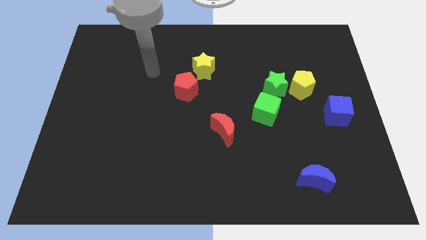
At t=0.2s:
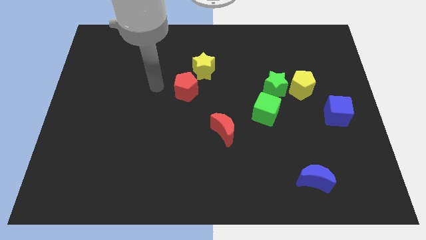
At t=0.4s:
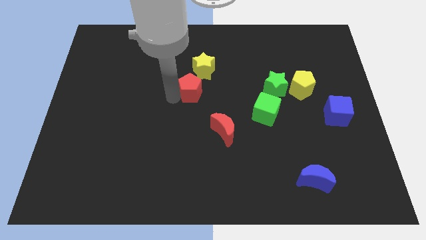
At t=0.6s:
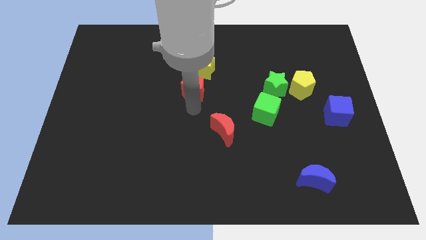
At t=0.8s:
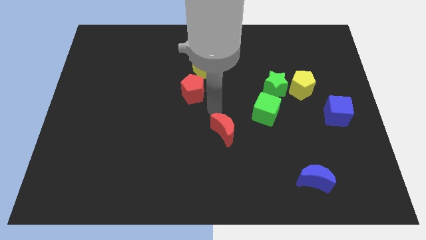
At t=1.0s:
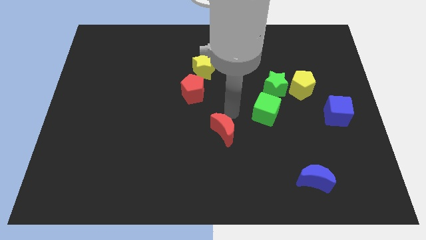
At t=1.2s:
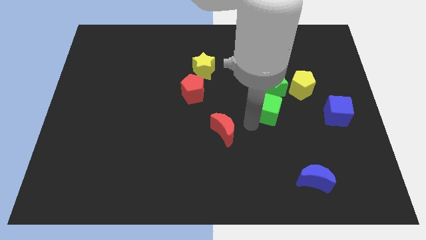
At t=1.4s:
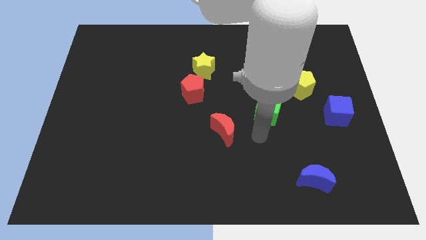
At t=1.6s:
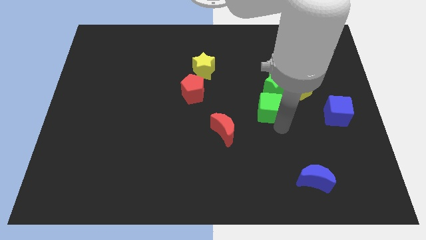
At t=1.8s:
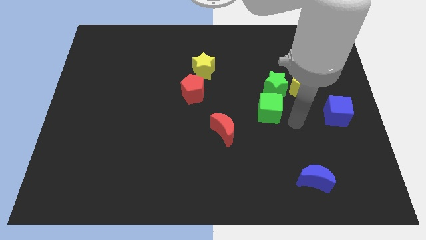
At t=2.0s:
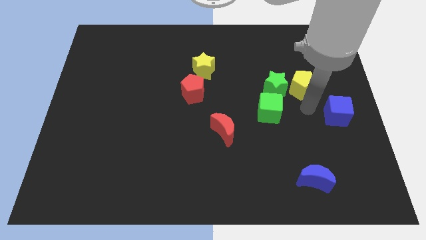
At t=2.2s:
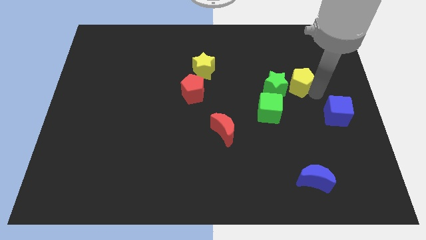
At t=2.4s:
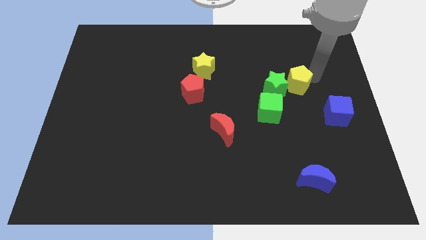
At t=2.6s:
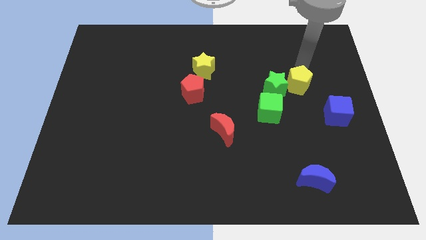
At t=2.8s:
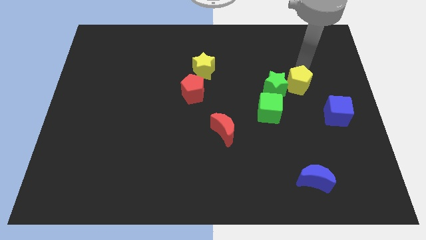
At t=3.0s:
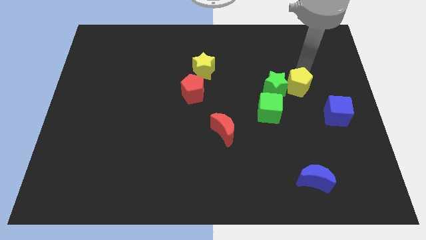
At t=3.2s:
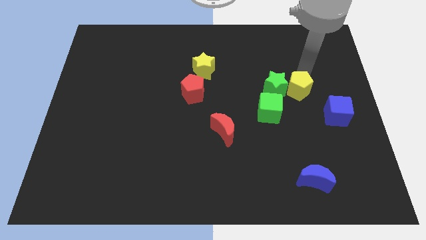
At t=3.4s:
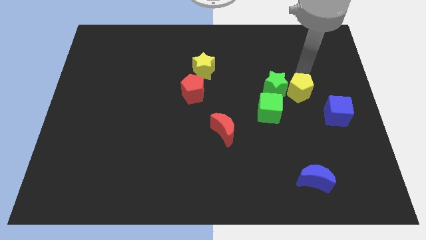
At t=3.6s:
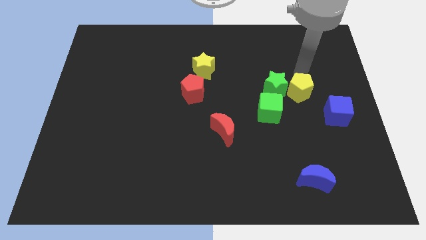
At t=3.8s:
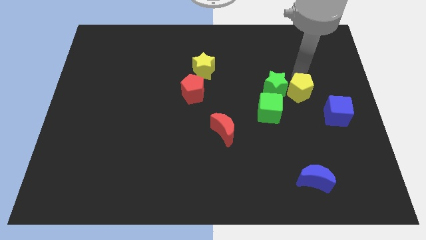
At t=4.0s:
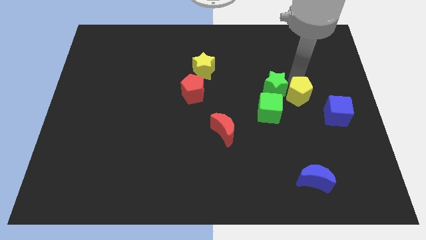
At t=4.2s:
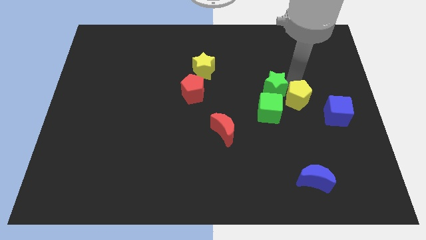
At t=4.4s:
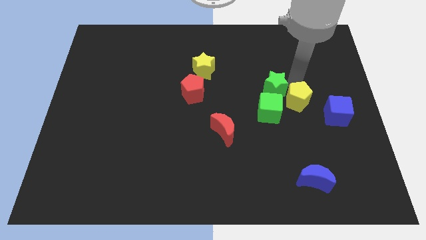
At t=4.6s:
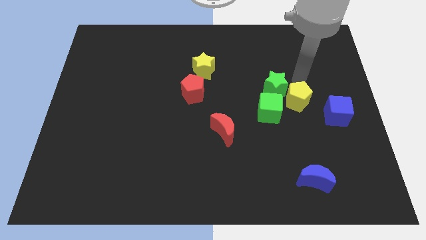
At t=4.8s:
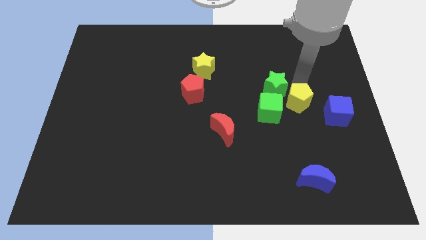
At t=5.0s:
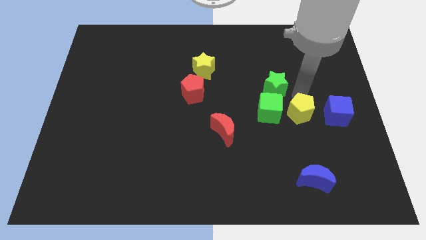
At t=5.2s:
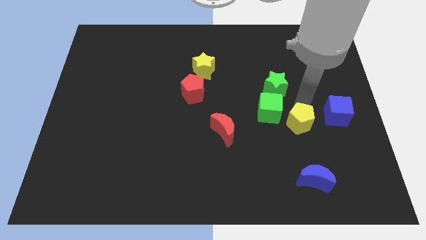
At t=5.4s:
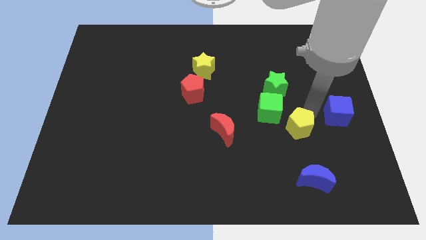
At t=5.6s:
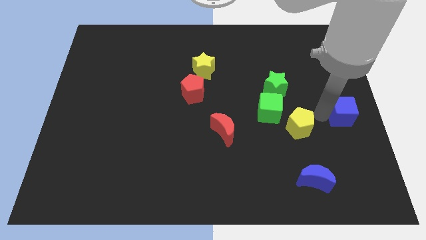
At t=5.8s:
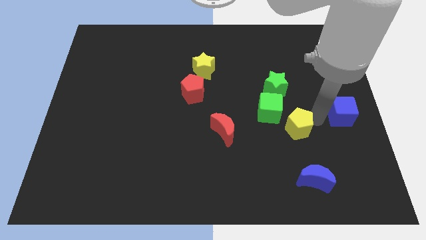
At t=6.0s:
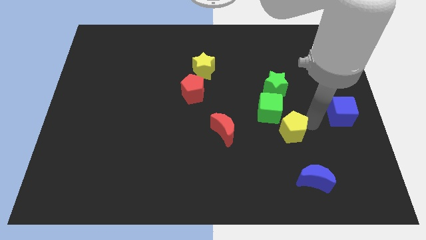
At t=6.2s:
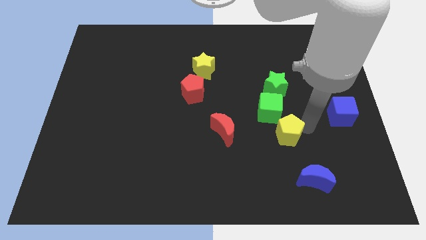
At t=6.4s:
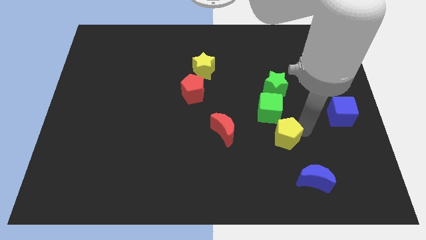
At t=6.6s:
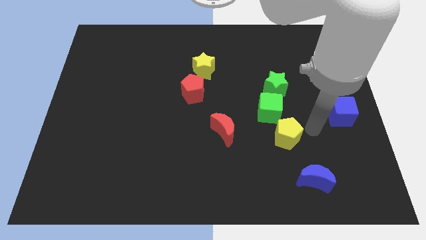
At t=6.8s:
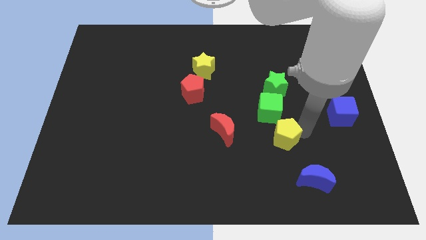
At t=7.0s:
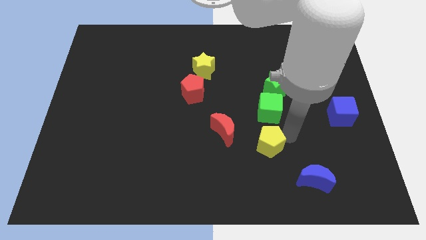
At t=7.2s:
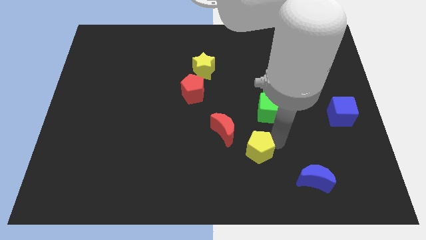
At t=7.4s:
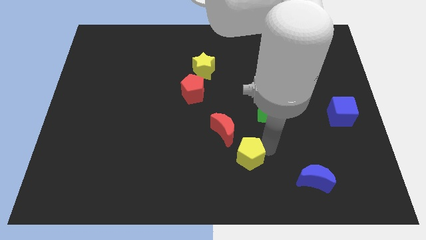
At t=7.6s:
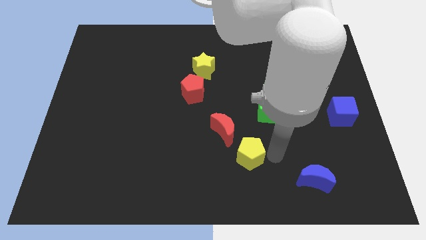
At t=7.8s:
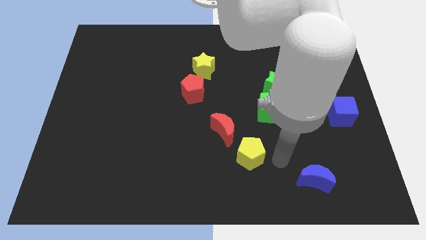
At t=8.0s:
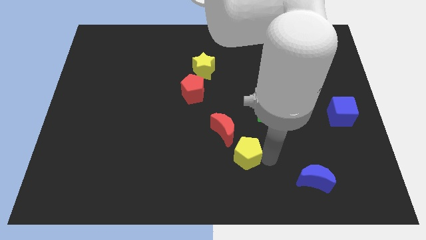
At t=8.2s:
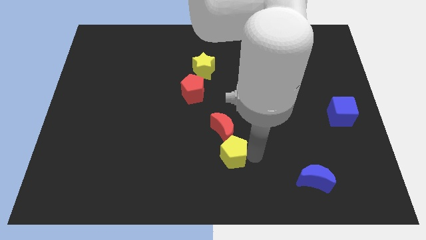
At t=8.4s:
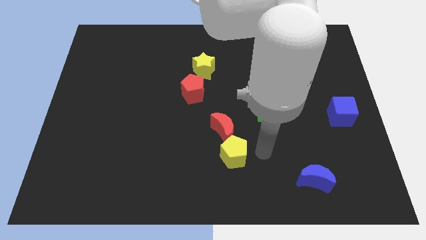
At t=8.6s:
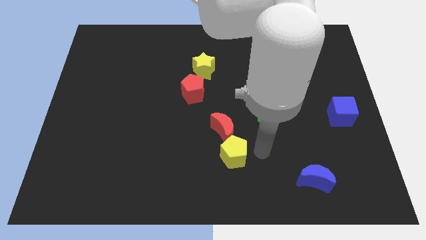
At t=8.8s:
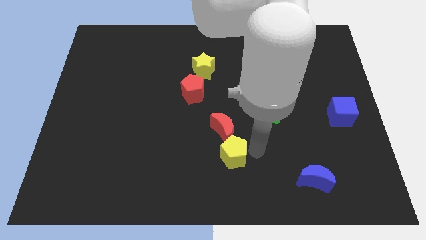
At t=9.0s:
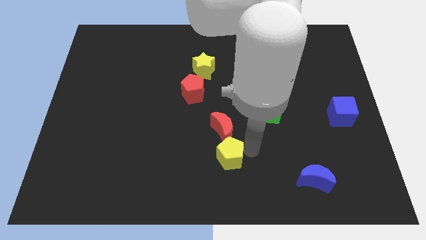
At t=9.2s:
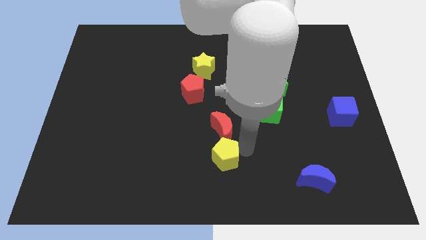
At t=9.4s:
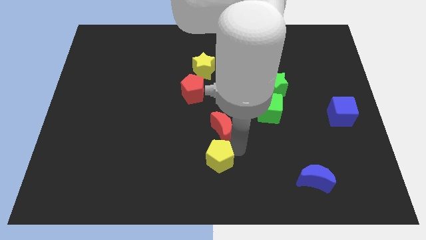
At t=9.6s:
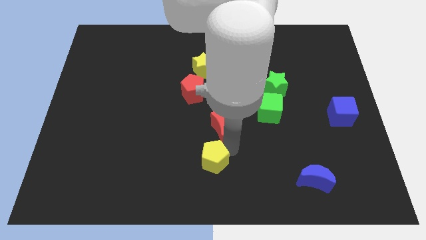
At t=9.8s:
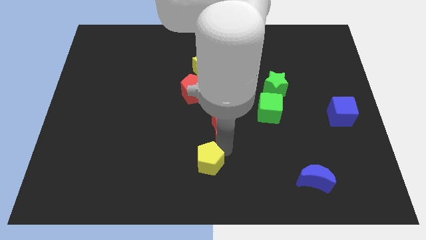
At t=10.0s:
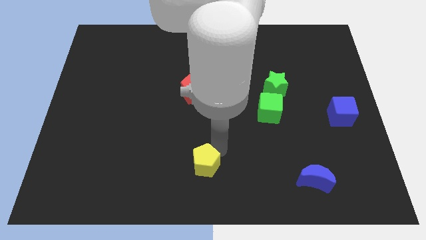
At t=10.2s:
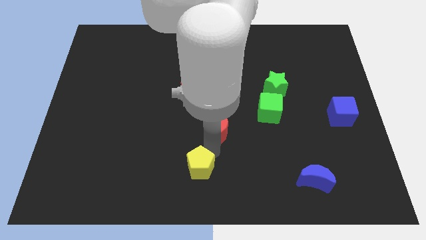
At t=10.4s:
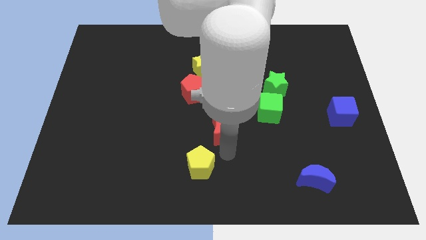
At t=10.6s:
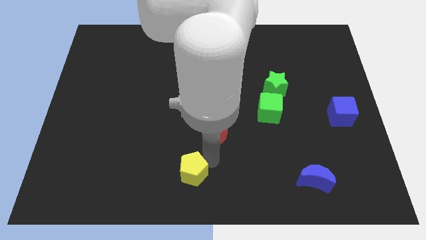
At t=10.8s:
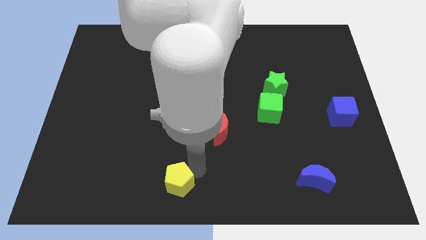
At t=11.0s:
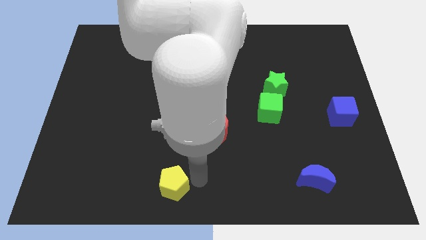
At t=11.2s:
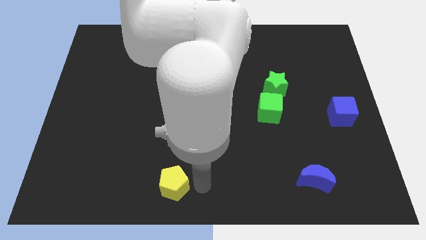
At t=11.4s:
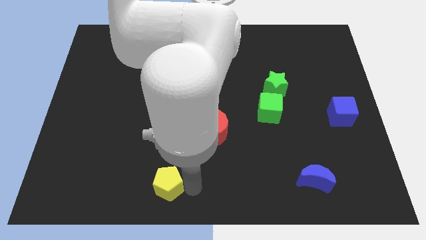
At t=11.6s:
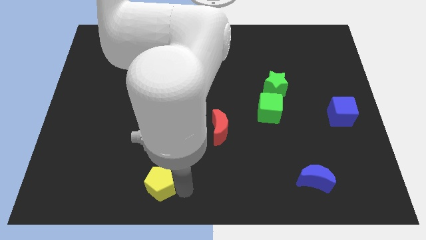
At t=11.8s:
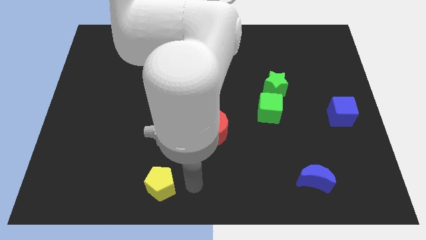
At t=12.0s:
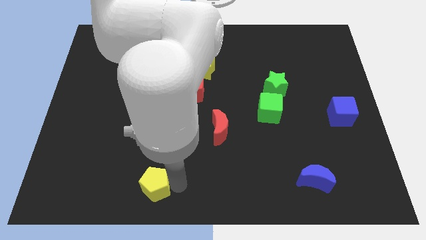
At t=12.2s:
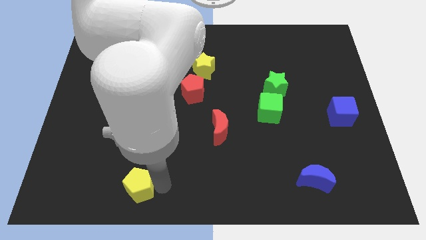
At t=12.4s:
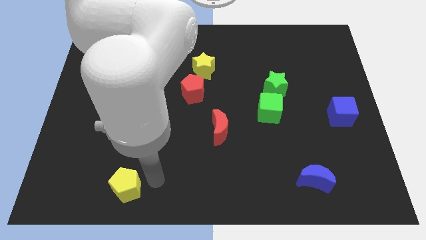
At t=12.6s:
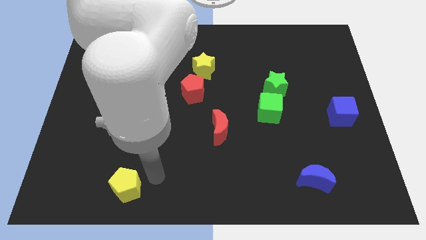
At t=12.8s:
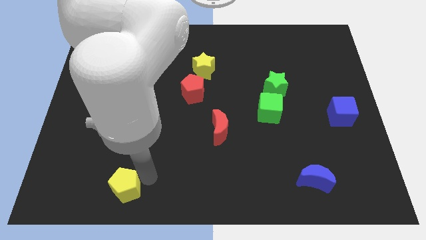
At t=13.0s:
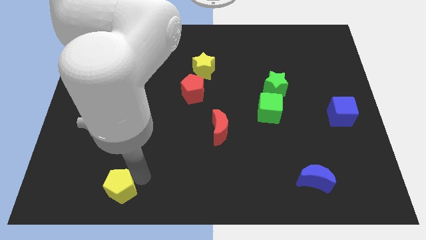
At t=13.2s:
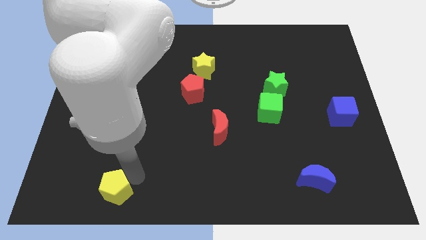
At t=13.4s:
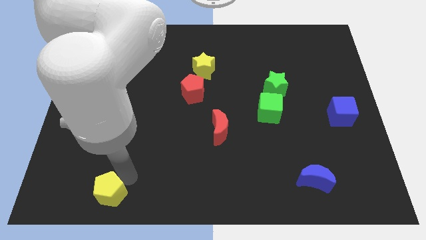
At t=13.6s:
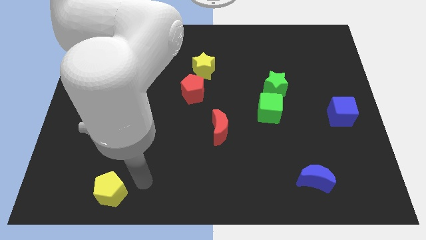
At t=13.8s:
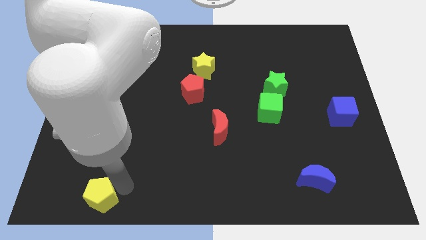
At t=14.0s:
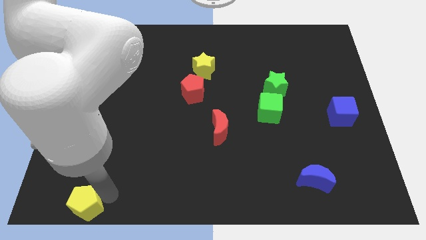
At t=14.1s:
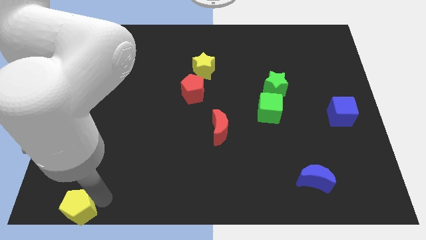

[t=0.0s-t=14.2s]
push the yellow pentagon to the bottom left
